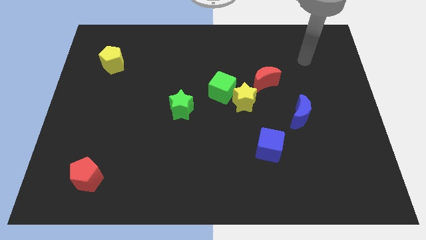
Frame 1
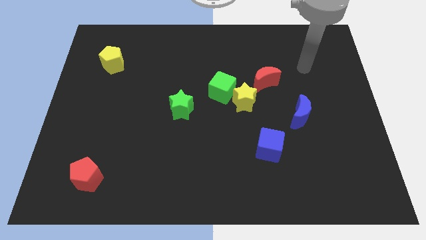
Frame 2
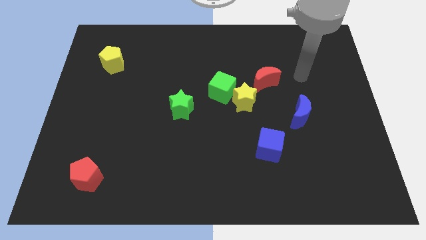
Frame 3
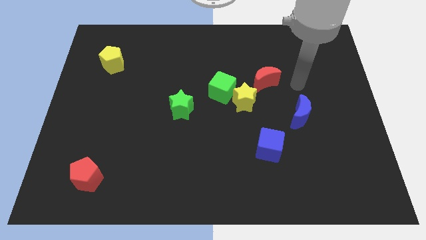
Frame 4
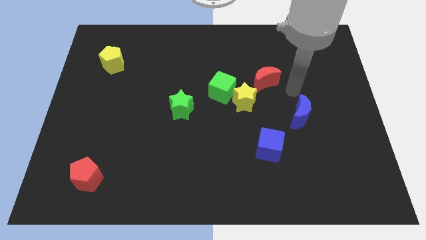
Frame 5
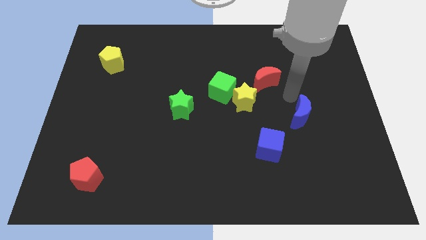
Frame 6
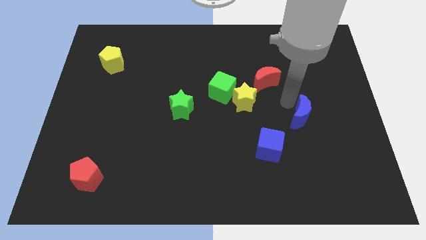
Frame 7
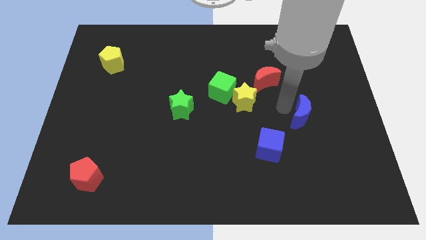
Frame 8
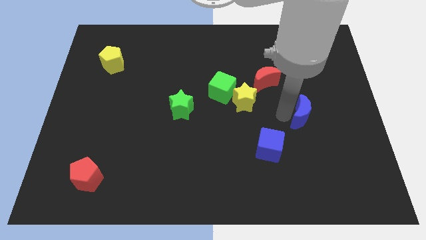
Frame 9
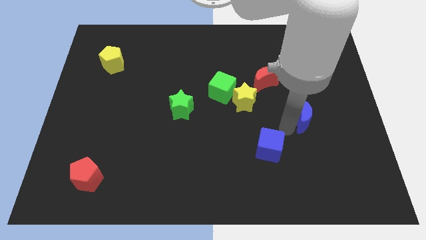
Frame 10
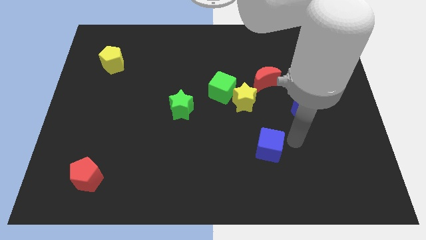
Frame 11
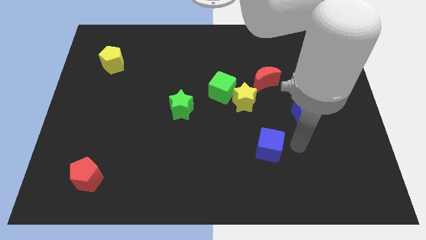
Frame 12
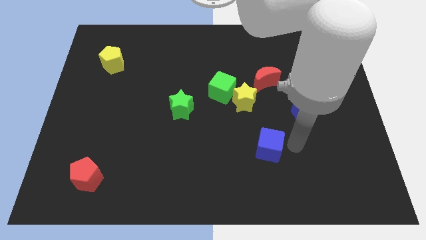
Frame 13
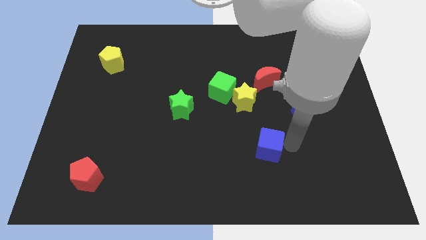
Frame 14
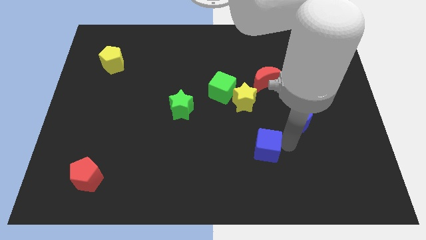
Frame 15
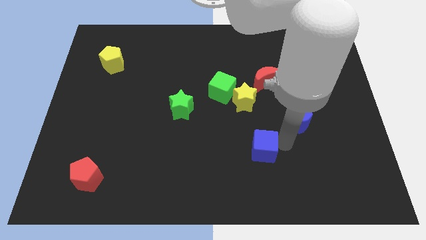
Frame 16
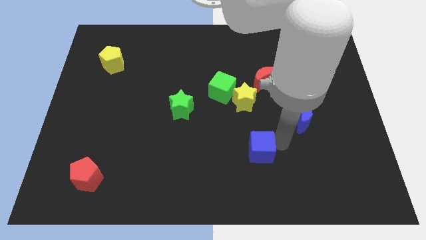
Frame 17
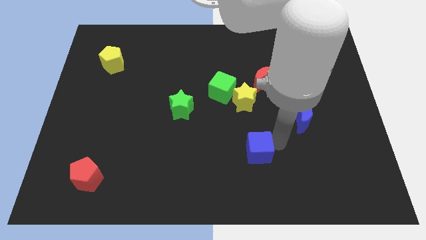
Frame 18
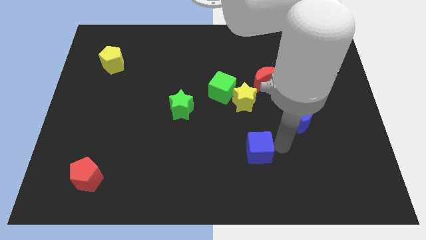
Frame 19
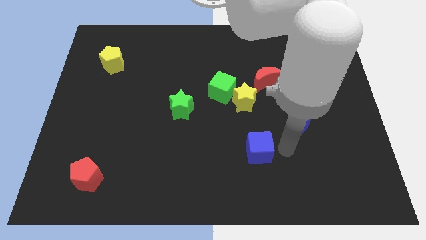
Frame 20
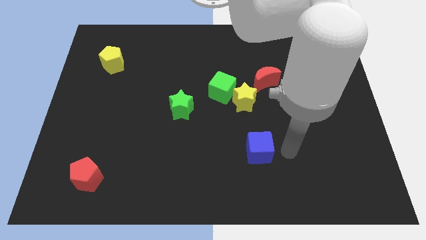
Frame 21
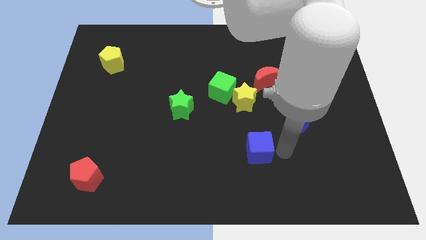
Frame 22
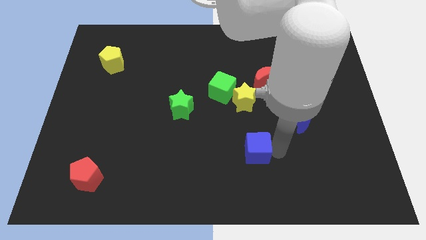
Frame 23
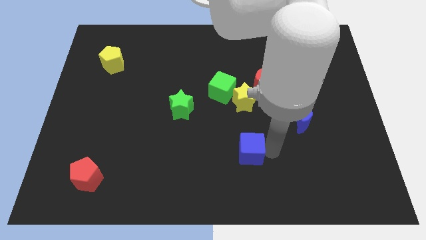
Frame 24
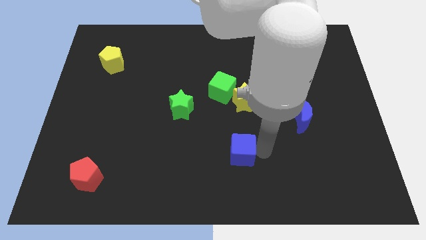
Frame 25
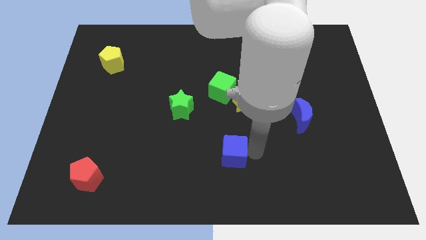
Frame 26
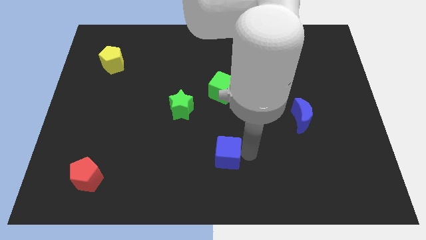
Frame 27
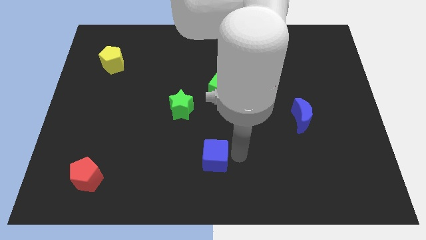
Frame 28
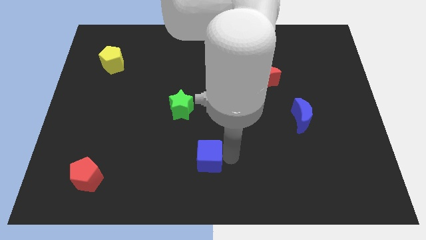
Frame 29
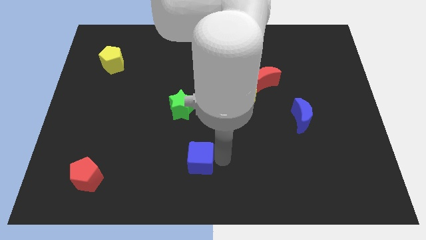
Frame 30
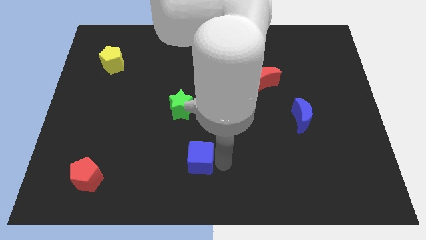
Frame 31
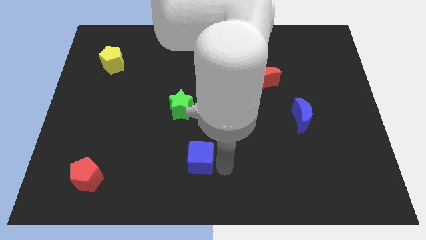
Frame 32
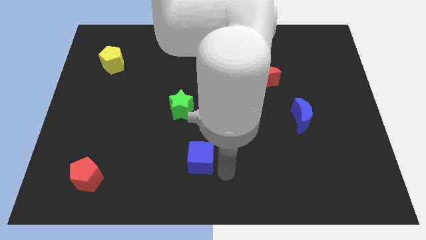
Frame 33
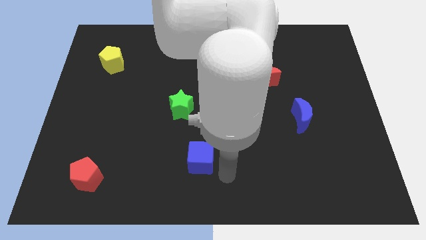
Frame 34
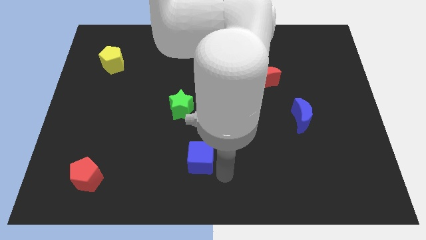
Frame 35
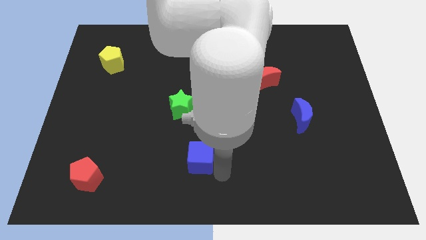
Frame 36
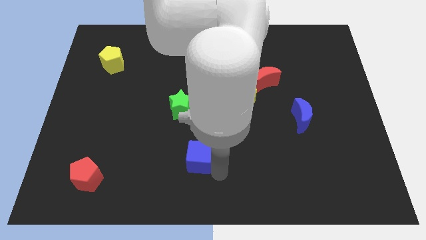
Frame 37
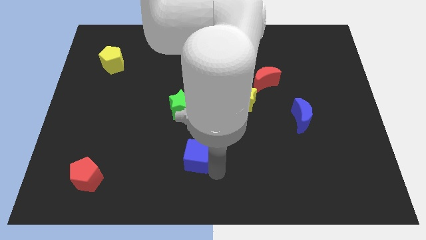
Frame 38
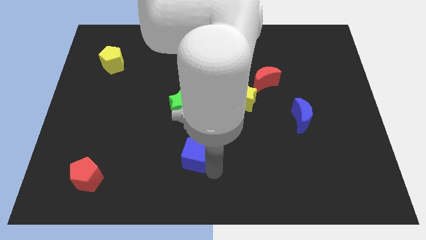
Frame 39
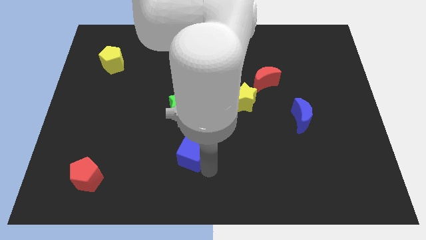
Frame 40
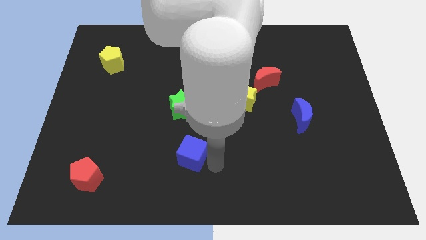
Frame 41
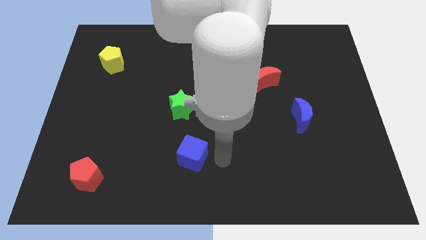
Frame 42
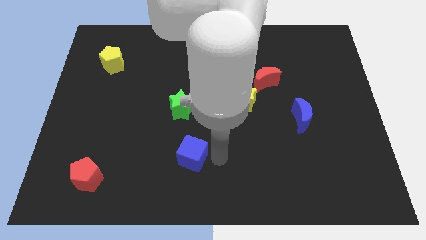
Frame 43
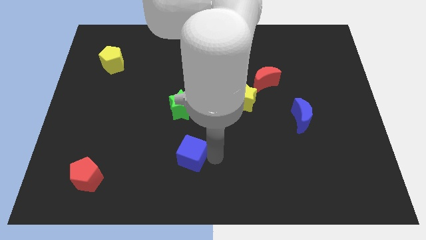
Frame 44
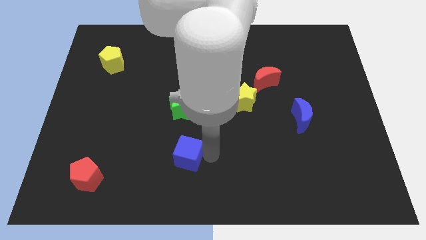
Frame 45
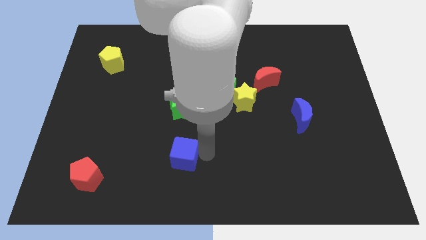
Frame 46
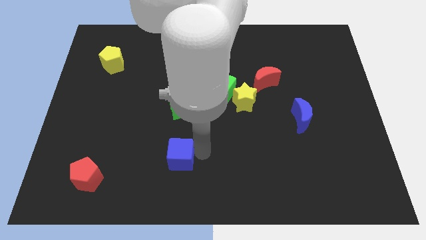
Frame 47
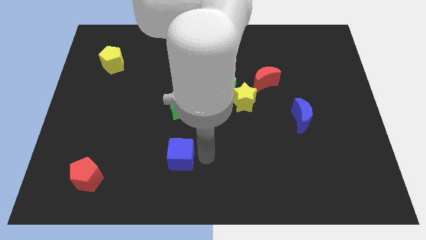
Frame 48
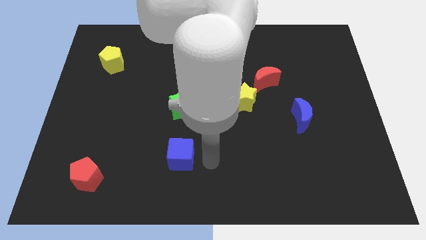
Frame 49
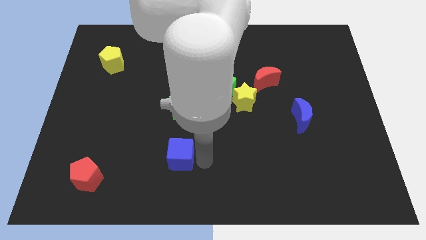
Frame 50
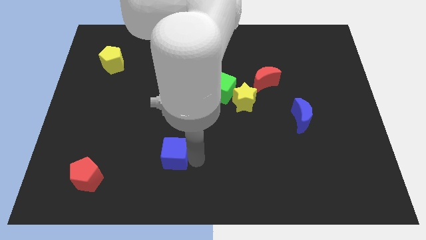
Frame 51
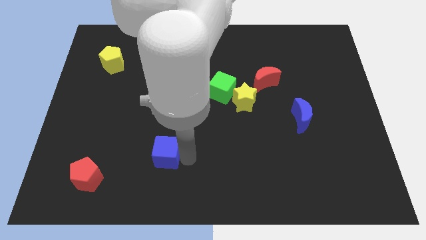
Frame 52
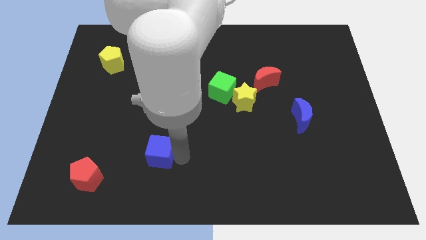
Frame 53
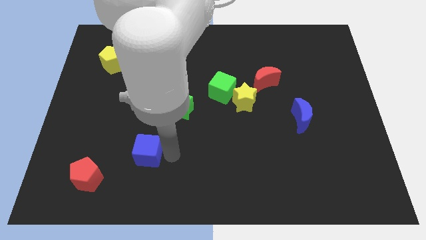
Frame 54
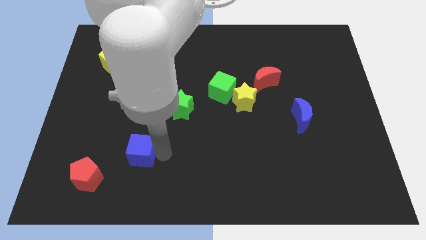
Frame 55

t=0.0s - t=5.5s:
push the blue cube to the top right side of the red pentagon

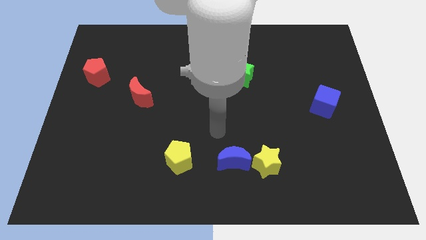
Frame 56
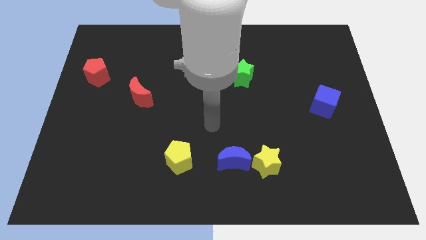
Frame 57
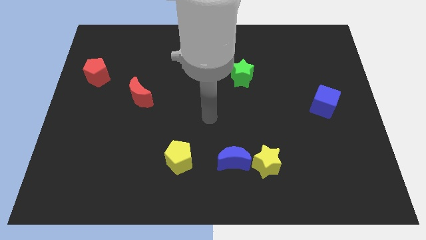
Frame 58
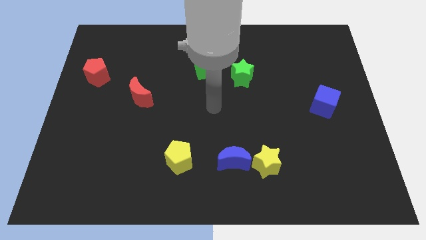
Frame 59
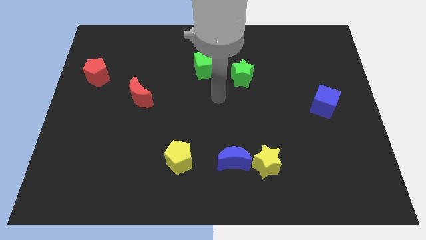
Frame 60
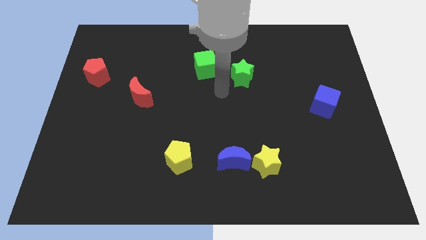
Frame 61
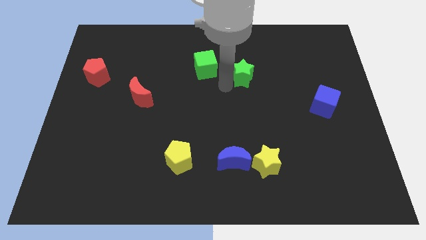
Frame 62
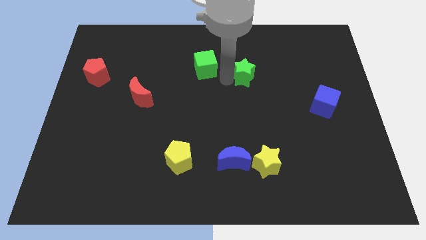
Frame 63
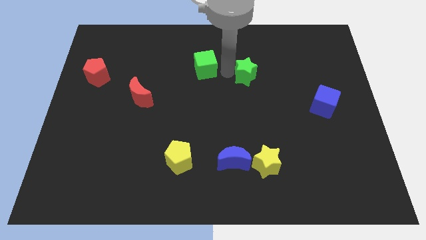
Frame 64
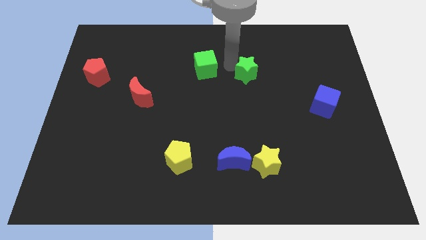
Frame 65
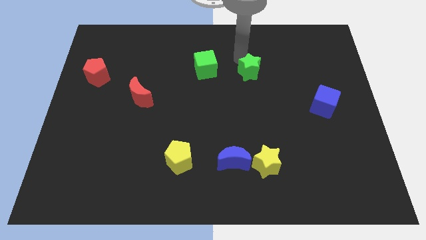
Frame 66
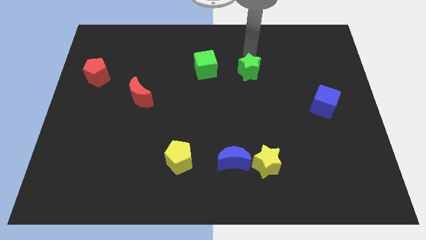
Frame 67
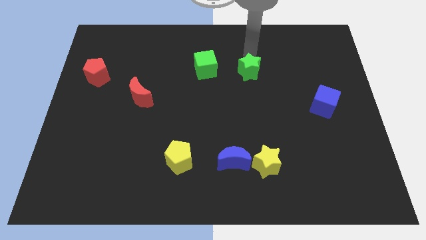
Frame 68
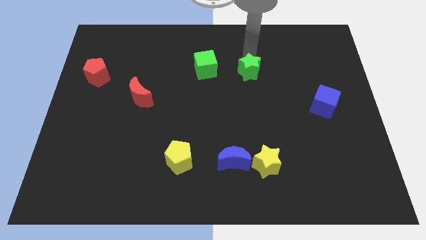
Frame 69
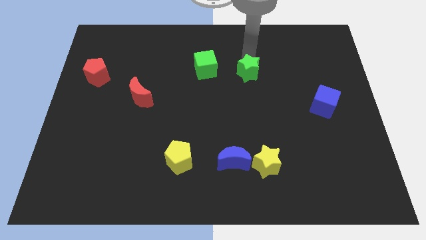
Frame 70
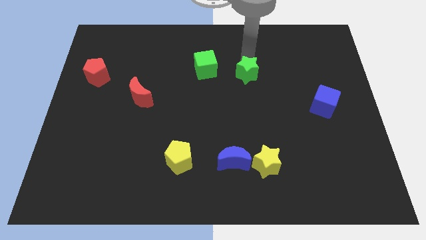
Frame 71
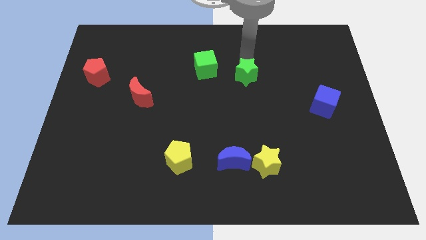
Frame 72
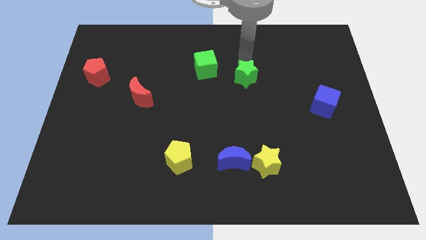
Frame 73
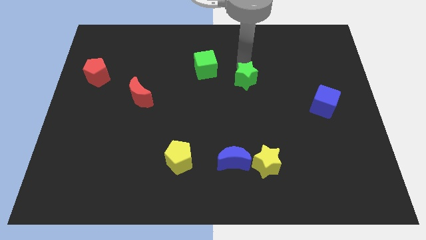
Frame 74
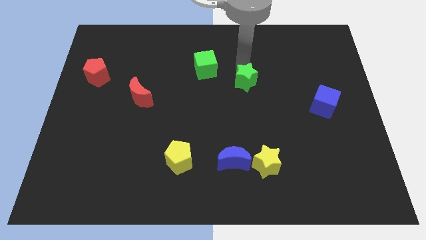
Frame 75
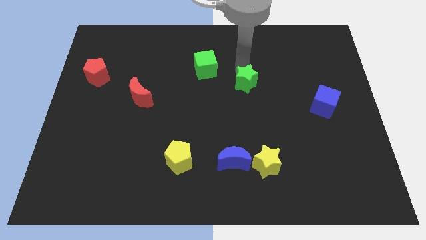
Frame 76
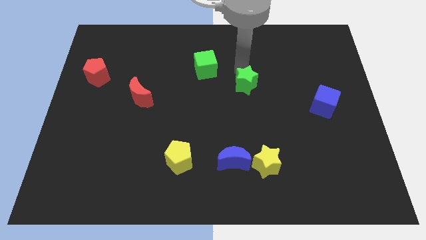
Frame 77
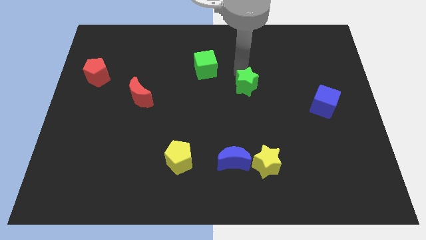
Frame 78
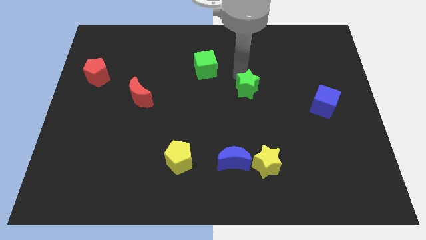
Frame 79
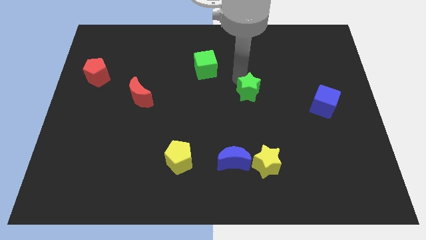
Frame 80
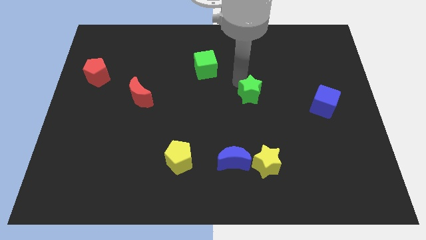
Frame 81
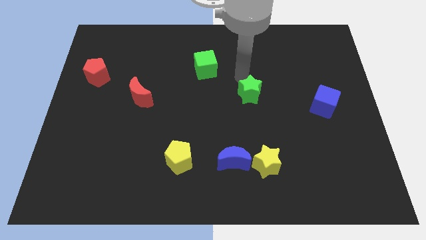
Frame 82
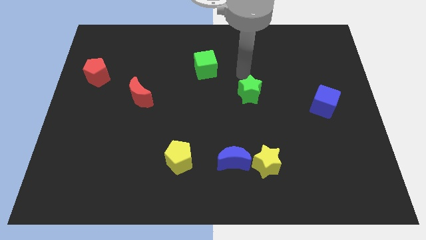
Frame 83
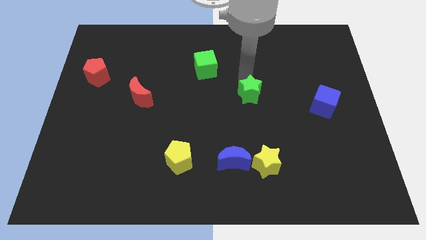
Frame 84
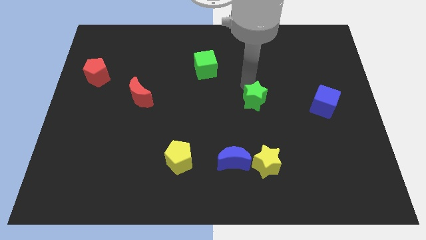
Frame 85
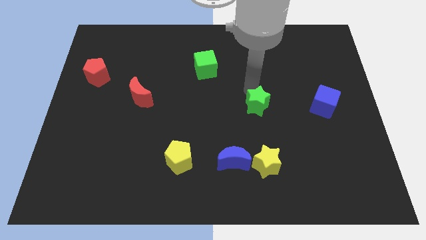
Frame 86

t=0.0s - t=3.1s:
push the green star to the top side of the yellow star
